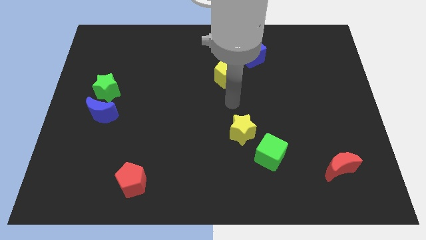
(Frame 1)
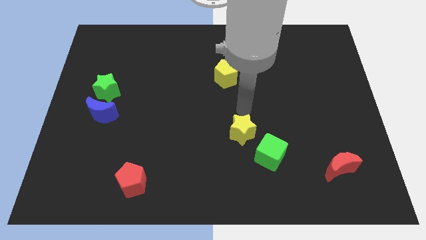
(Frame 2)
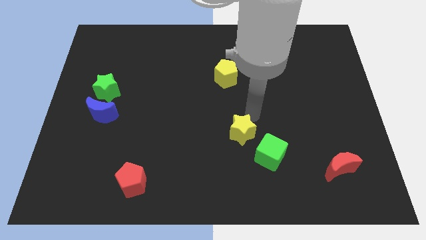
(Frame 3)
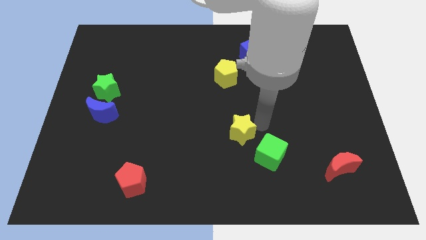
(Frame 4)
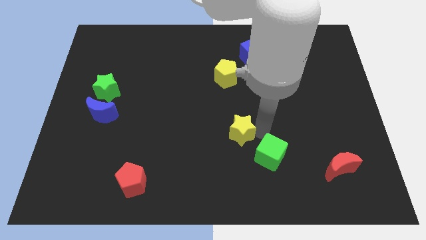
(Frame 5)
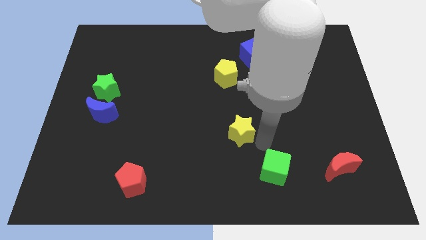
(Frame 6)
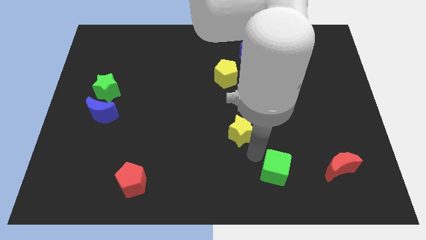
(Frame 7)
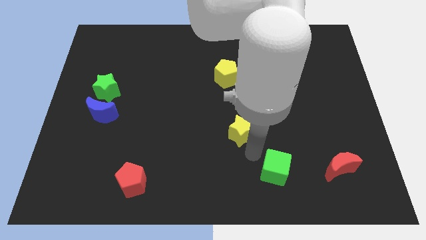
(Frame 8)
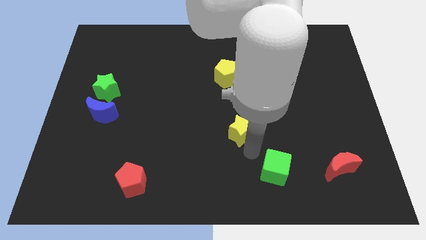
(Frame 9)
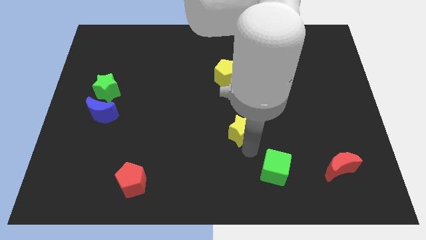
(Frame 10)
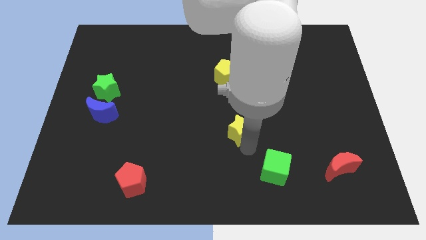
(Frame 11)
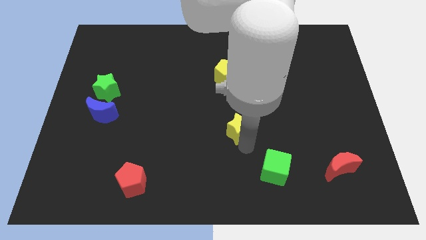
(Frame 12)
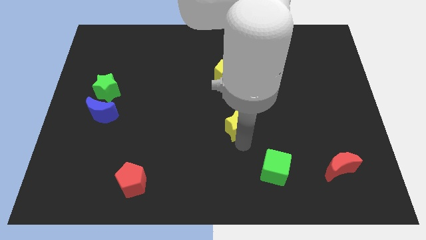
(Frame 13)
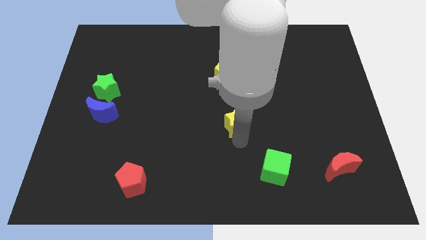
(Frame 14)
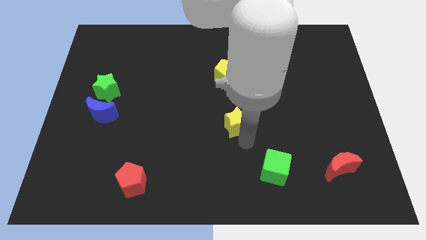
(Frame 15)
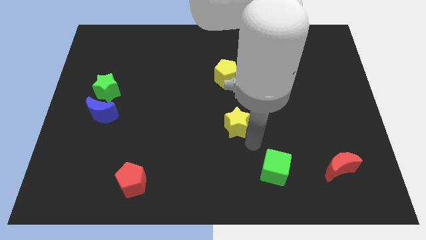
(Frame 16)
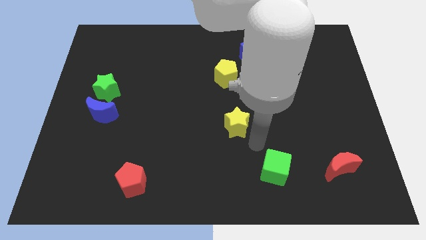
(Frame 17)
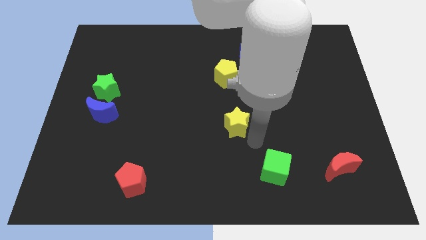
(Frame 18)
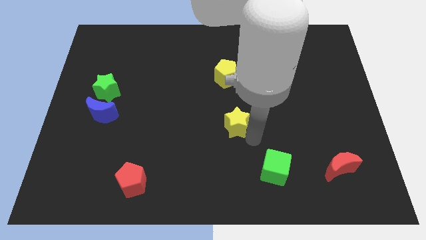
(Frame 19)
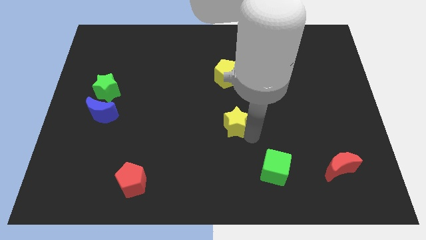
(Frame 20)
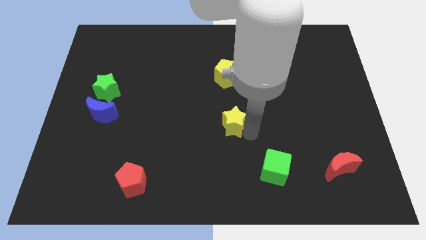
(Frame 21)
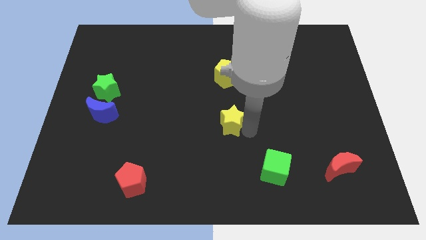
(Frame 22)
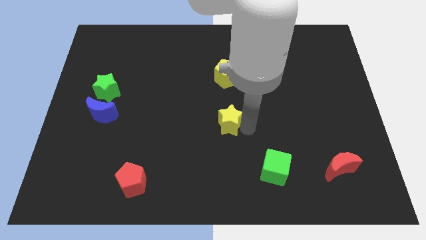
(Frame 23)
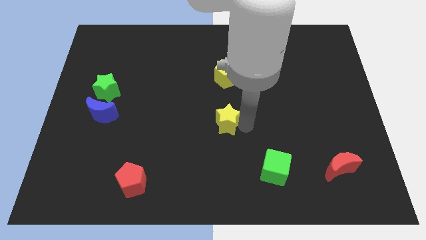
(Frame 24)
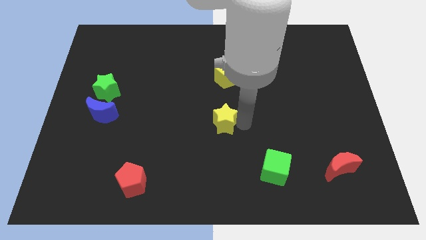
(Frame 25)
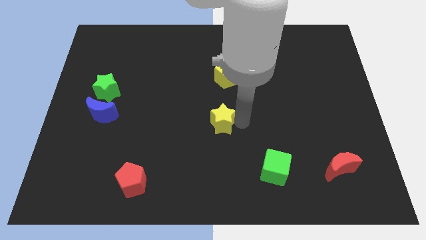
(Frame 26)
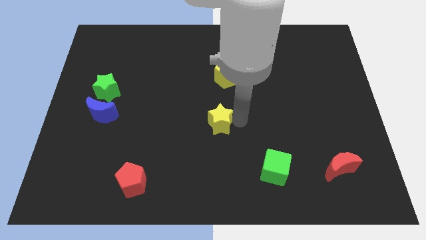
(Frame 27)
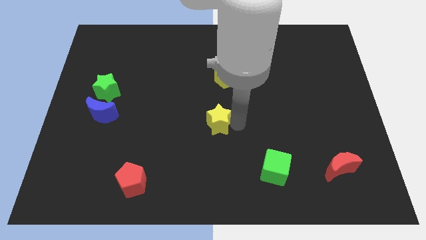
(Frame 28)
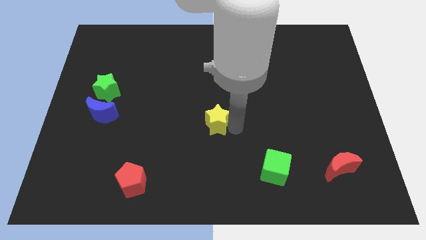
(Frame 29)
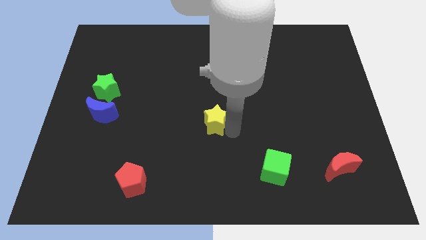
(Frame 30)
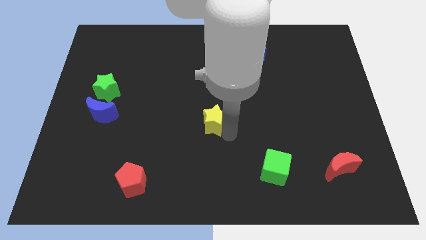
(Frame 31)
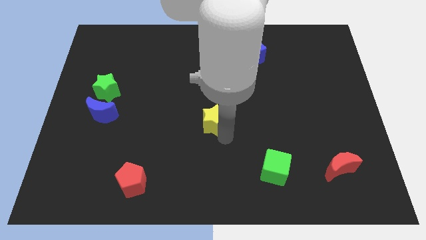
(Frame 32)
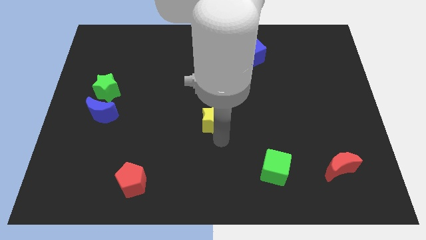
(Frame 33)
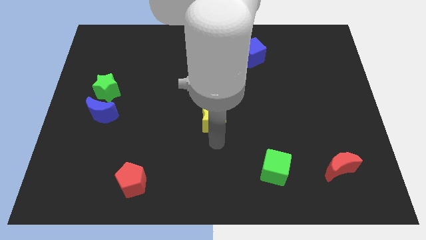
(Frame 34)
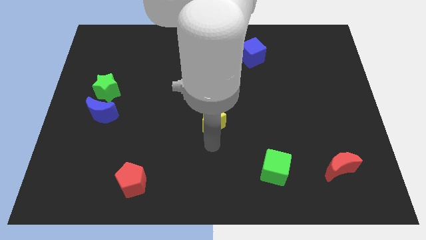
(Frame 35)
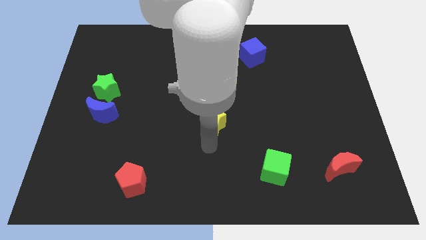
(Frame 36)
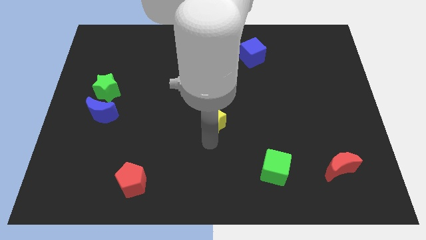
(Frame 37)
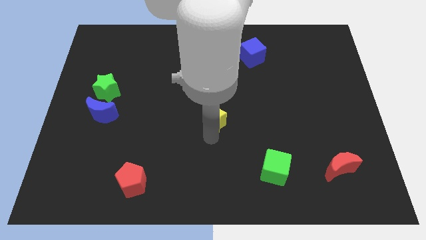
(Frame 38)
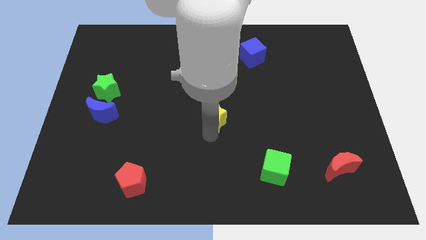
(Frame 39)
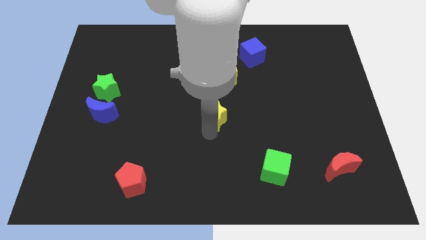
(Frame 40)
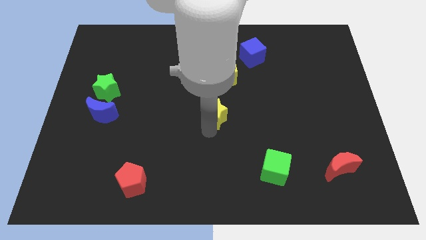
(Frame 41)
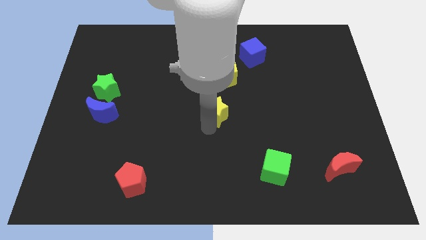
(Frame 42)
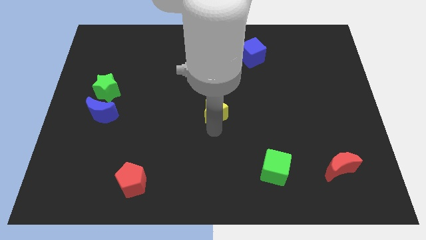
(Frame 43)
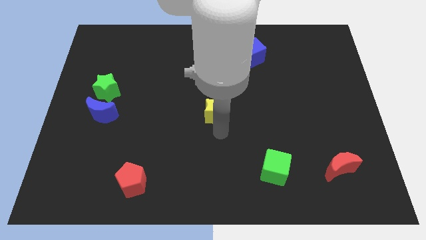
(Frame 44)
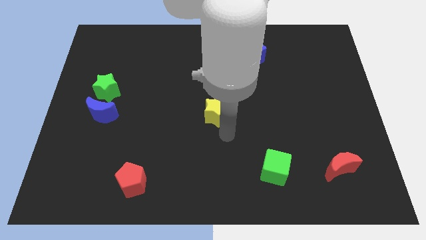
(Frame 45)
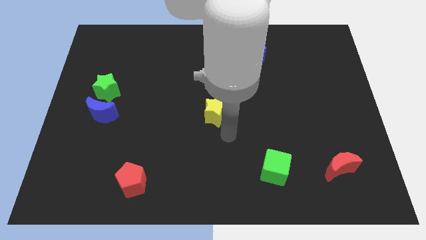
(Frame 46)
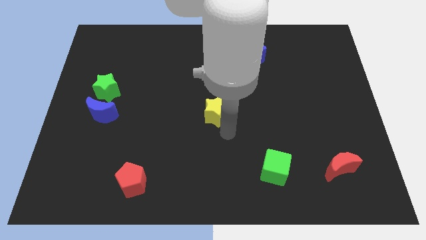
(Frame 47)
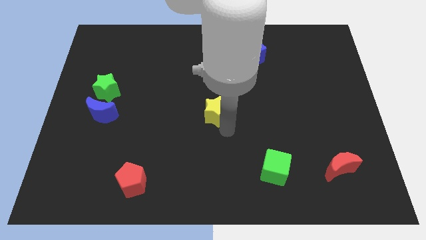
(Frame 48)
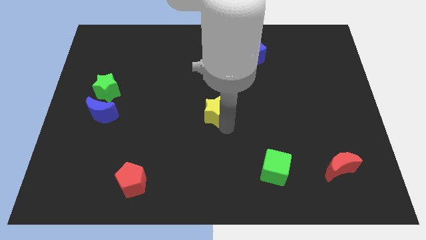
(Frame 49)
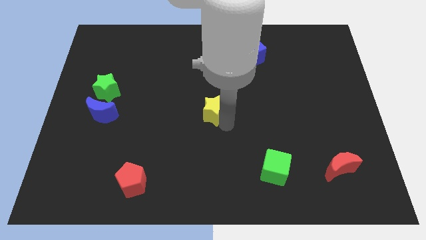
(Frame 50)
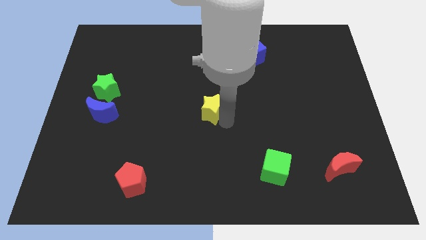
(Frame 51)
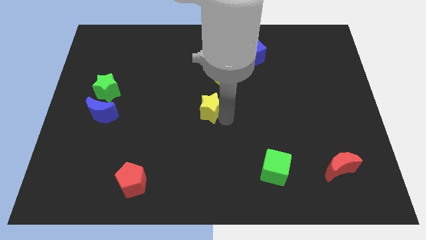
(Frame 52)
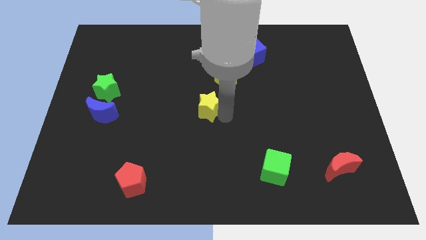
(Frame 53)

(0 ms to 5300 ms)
push the yellow star to the bottom left side of the yellow pentagon
